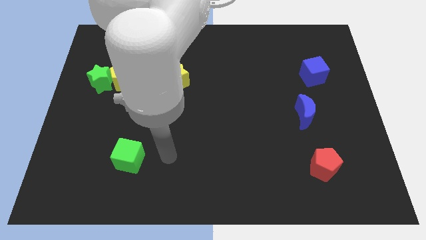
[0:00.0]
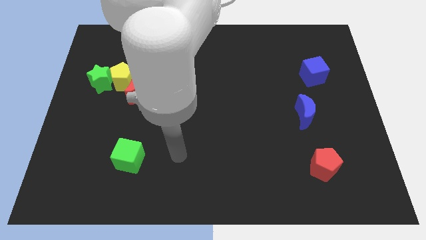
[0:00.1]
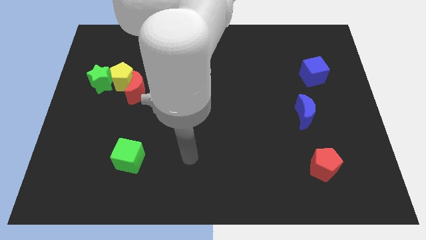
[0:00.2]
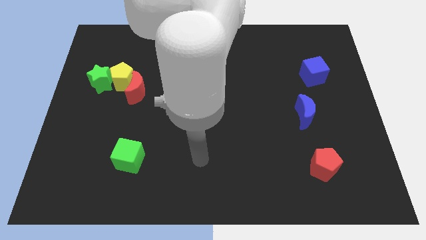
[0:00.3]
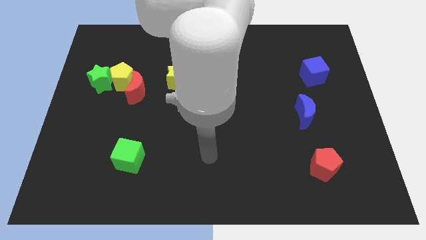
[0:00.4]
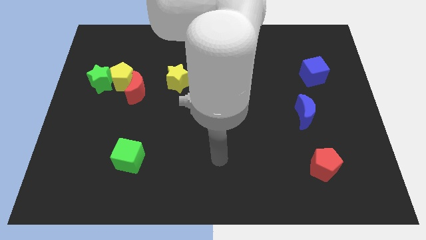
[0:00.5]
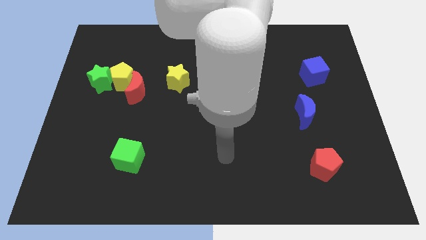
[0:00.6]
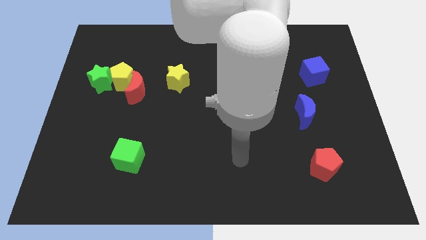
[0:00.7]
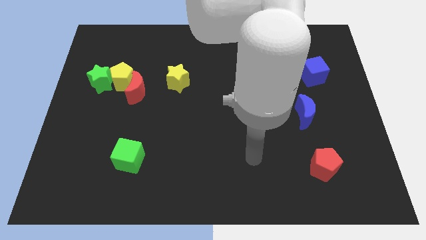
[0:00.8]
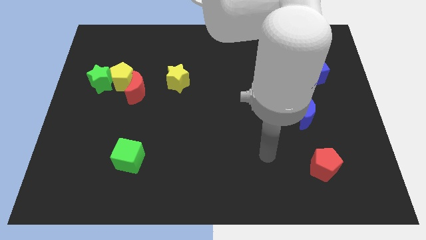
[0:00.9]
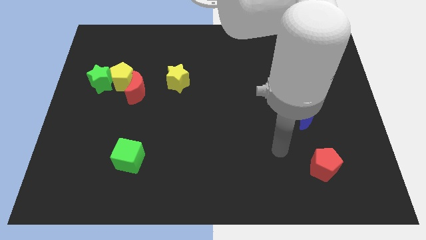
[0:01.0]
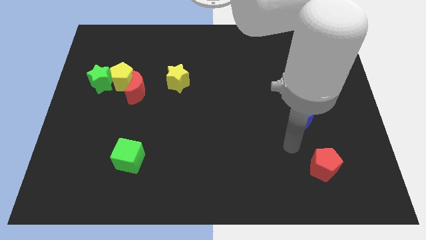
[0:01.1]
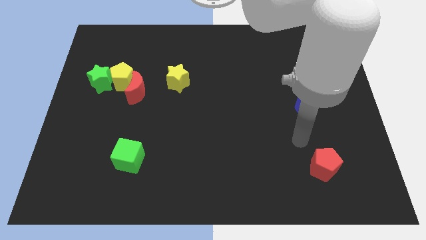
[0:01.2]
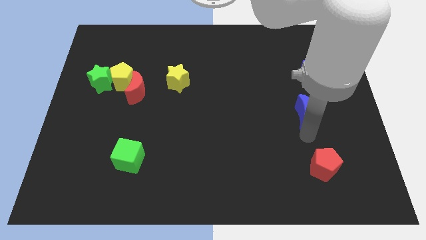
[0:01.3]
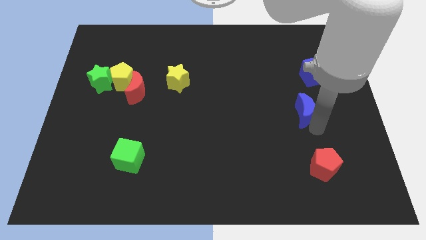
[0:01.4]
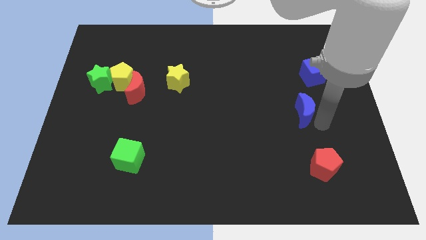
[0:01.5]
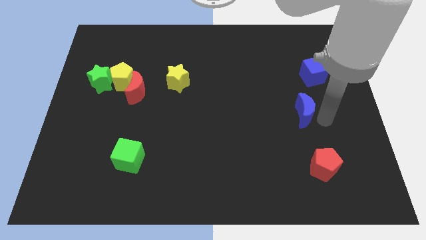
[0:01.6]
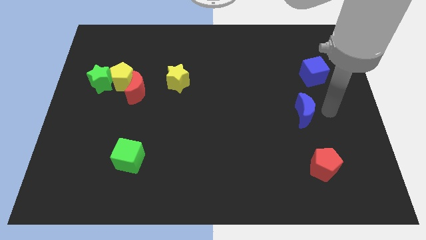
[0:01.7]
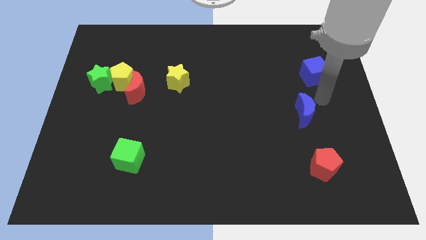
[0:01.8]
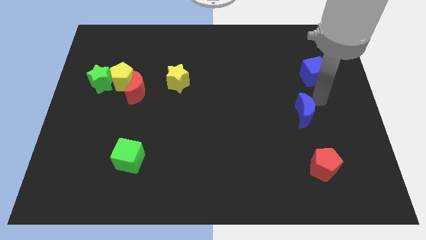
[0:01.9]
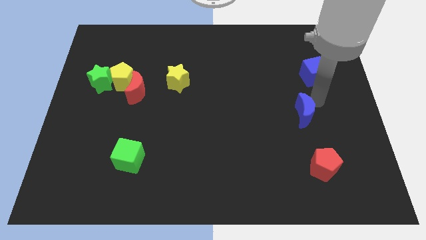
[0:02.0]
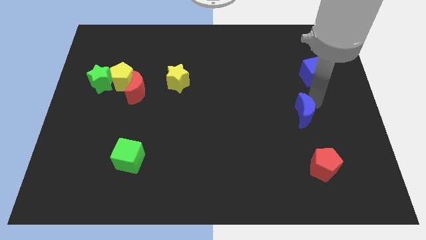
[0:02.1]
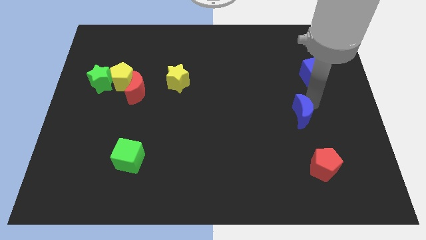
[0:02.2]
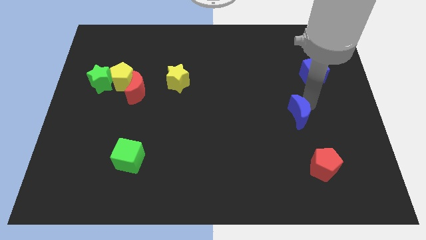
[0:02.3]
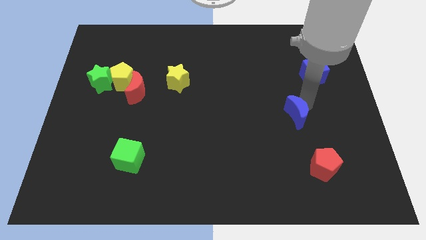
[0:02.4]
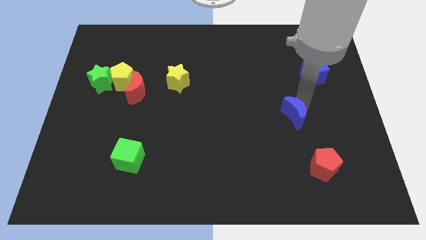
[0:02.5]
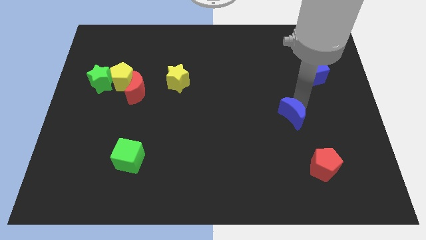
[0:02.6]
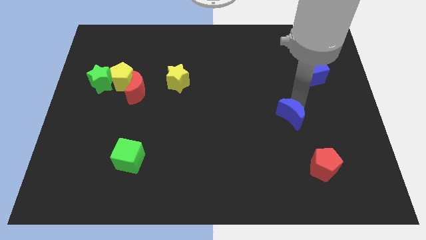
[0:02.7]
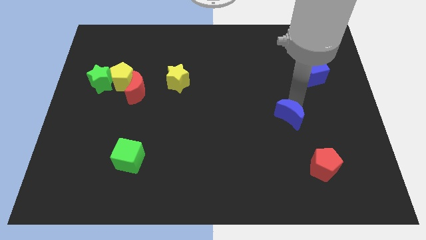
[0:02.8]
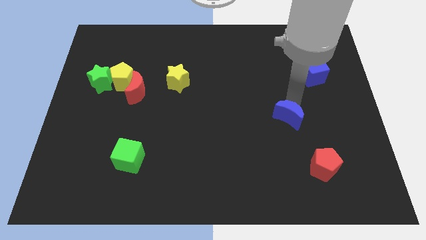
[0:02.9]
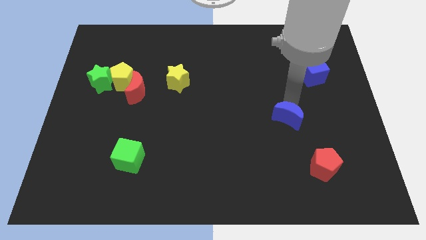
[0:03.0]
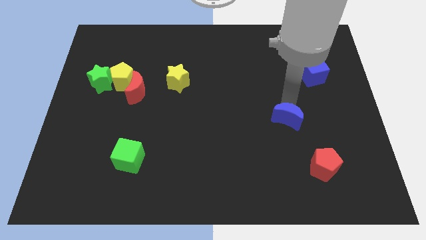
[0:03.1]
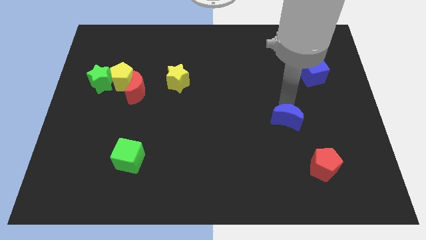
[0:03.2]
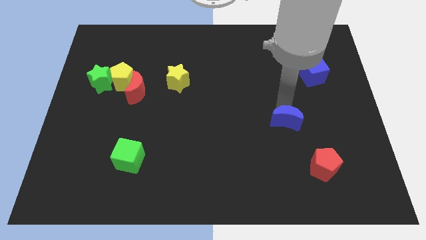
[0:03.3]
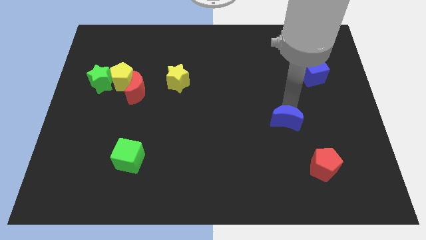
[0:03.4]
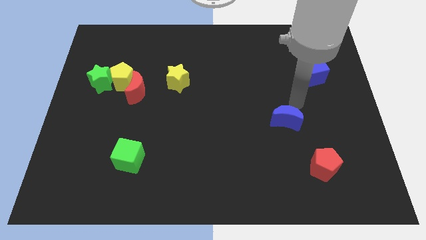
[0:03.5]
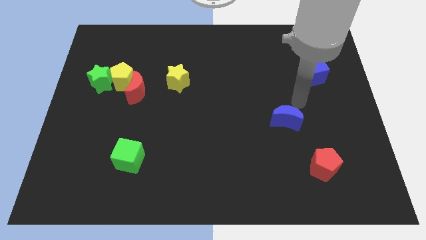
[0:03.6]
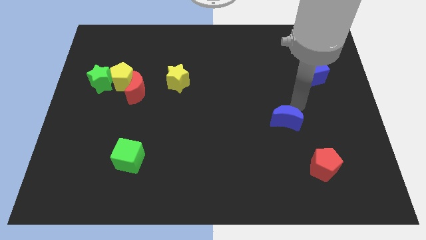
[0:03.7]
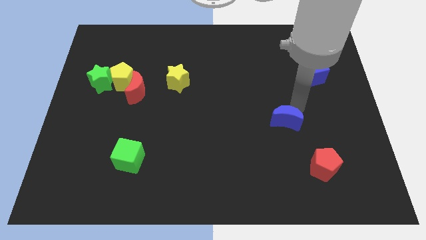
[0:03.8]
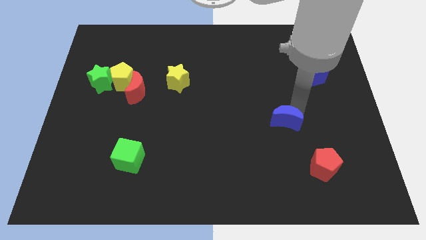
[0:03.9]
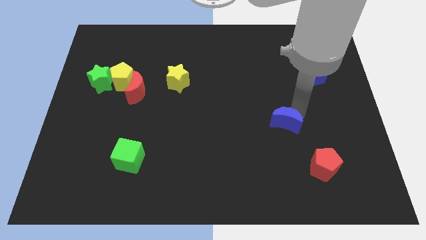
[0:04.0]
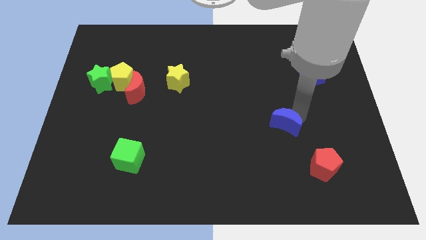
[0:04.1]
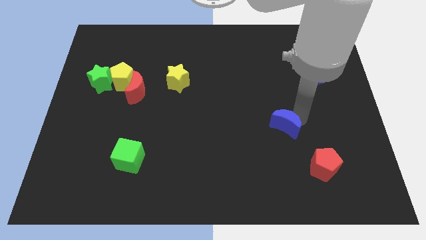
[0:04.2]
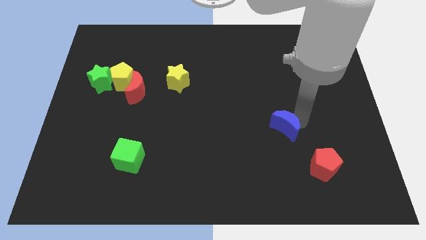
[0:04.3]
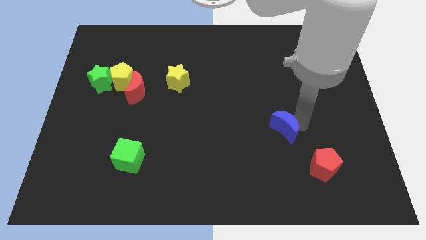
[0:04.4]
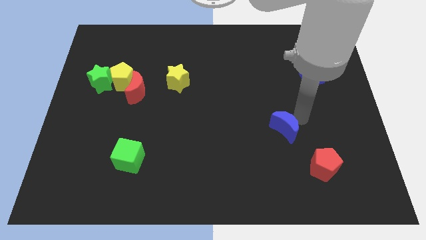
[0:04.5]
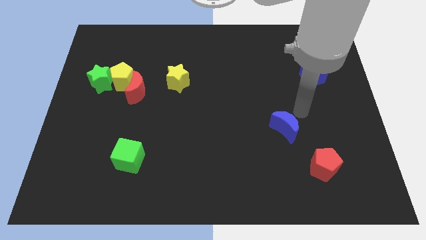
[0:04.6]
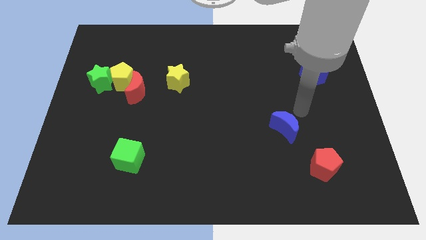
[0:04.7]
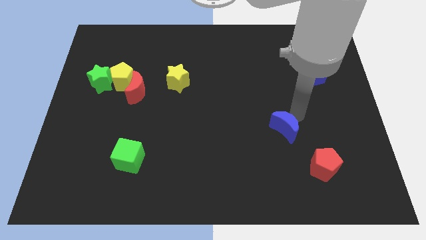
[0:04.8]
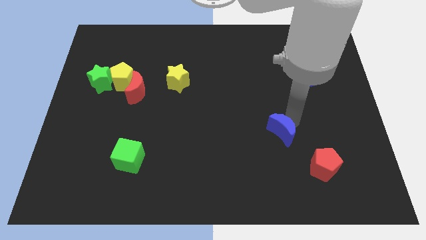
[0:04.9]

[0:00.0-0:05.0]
move the blue moon somewhat downwards and left diagonally

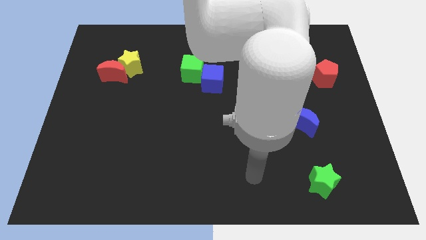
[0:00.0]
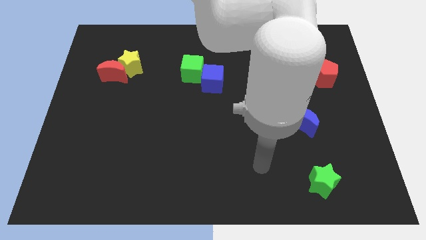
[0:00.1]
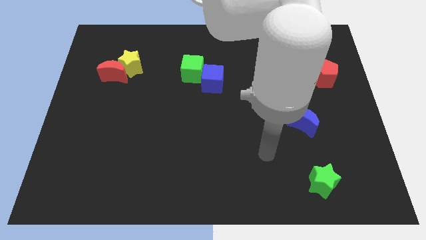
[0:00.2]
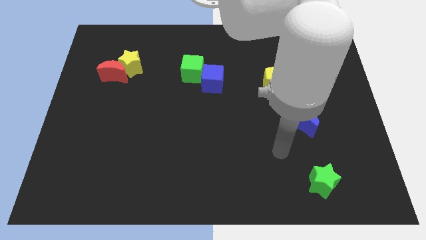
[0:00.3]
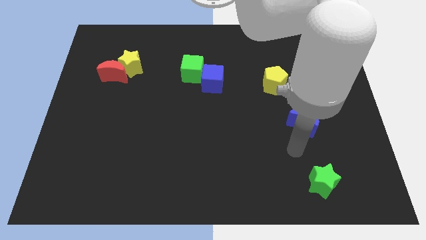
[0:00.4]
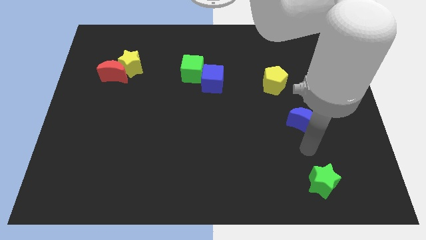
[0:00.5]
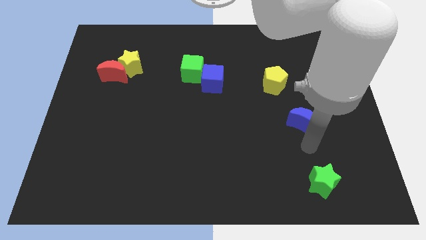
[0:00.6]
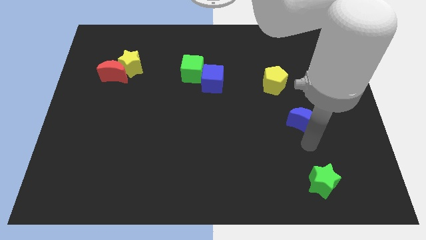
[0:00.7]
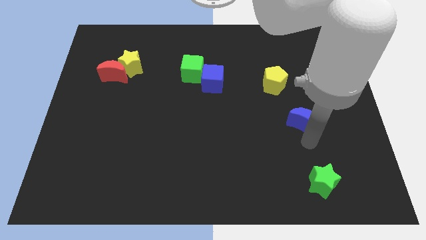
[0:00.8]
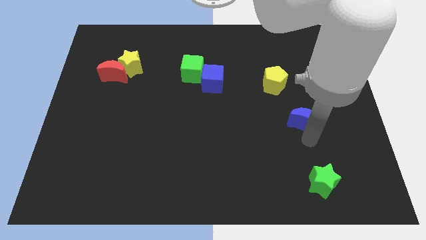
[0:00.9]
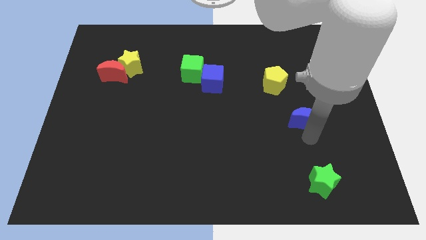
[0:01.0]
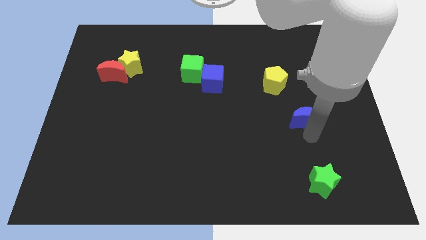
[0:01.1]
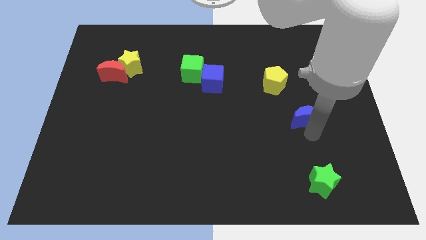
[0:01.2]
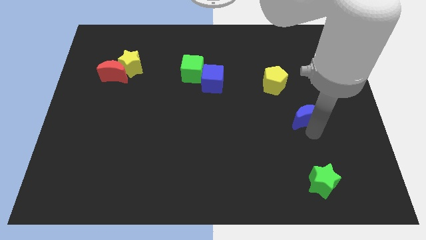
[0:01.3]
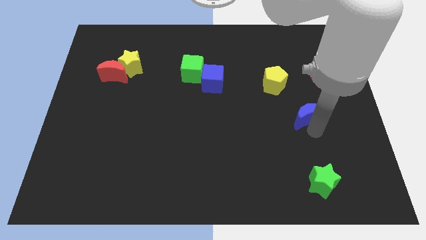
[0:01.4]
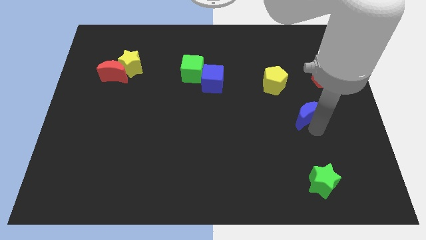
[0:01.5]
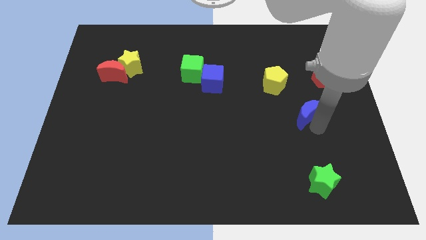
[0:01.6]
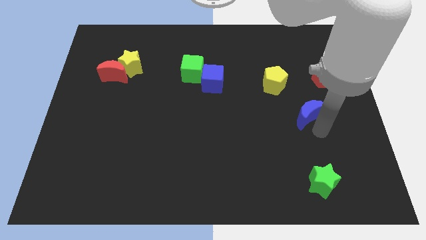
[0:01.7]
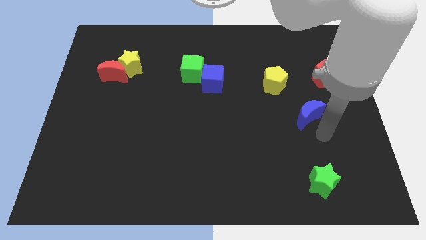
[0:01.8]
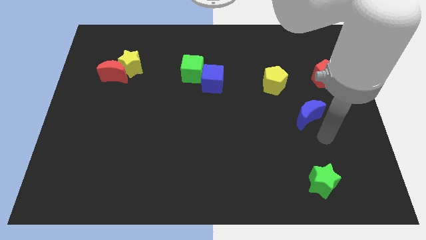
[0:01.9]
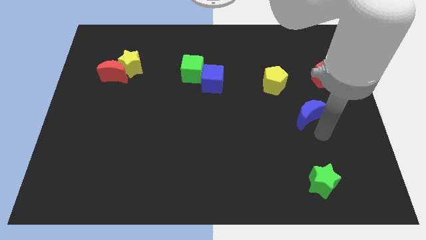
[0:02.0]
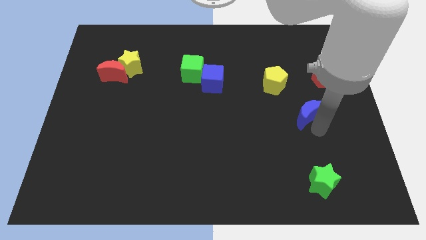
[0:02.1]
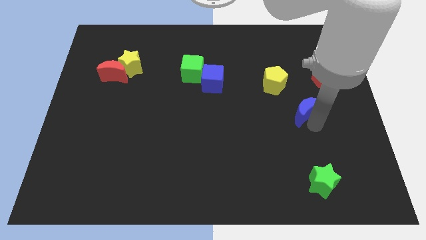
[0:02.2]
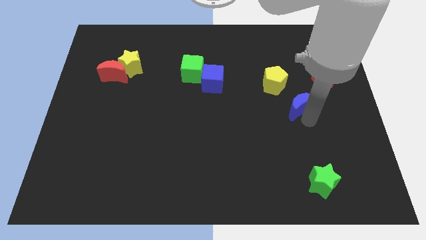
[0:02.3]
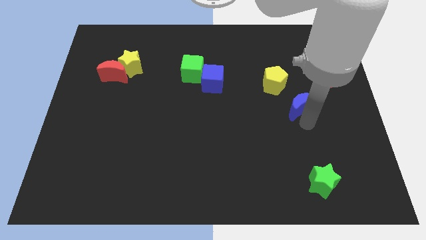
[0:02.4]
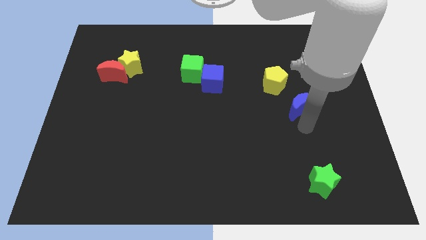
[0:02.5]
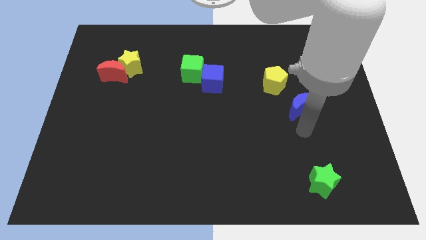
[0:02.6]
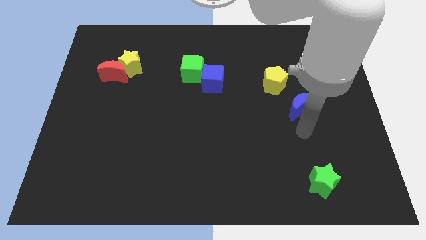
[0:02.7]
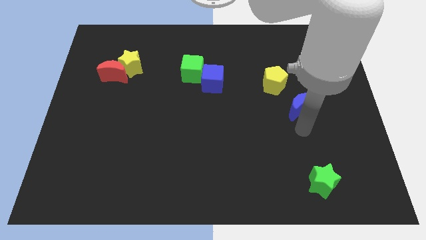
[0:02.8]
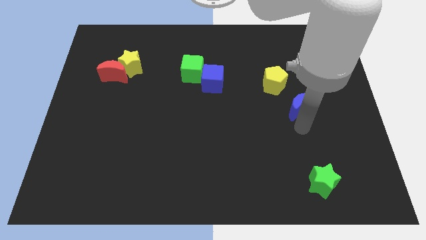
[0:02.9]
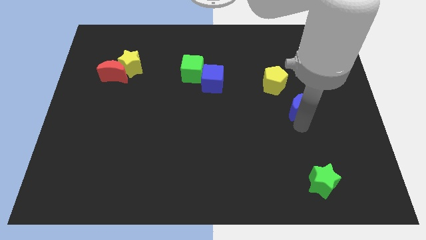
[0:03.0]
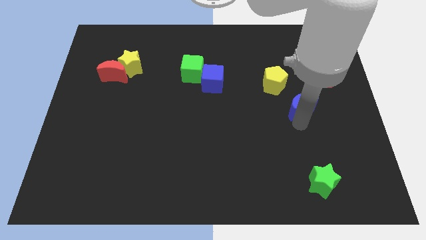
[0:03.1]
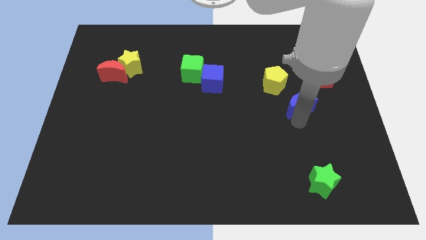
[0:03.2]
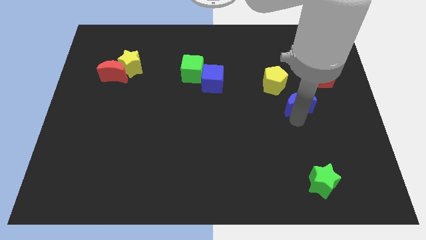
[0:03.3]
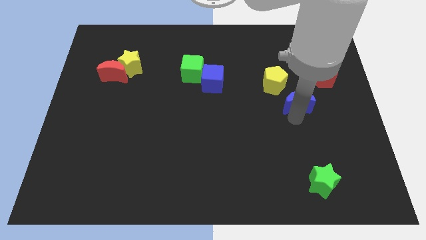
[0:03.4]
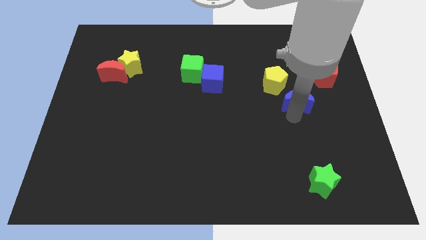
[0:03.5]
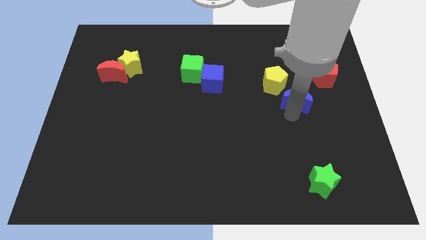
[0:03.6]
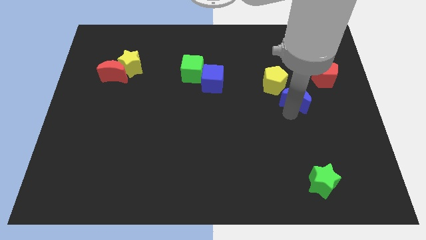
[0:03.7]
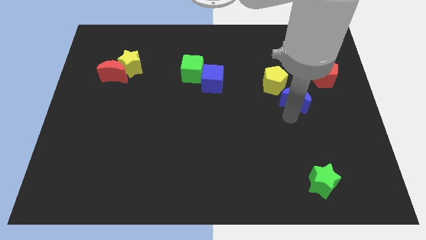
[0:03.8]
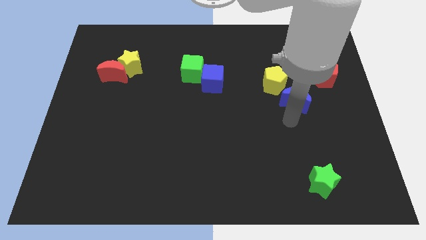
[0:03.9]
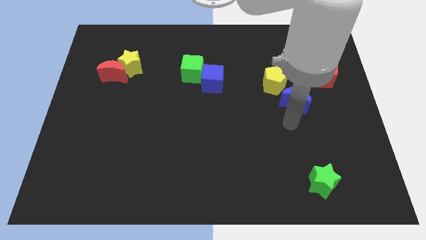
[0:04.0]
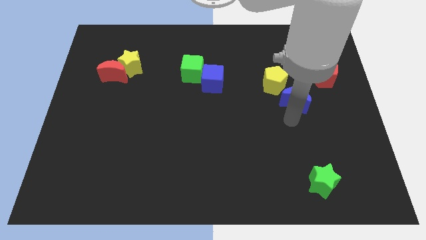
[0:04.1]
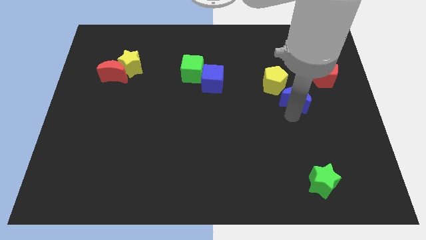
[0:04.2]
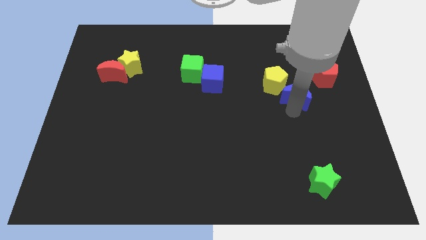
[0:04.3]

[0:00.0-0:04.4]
slightly slide the blue moon up
